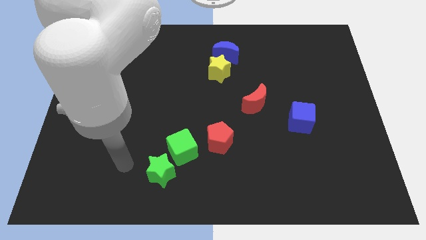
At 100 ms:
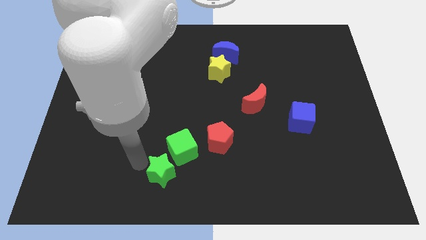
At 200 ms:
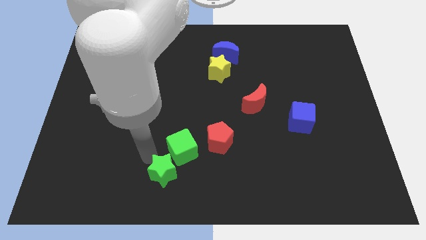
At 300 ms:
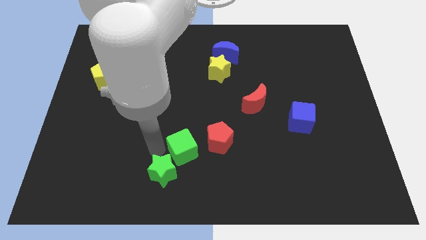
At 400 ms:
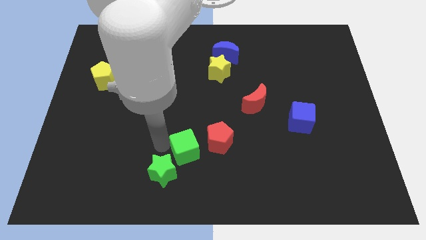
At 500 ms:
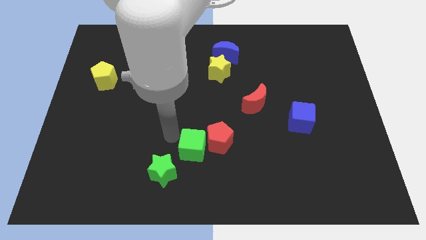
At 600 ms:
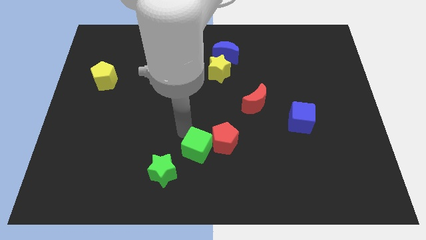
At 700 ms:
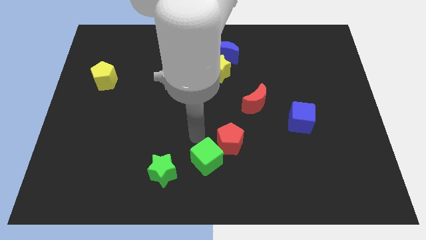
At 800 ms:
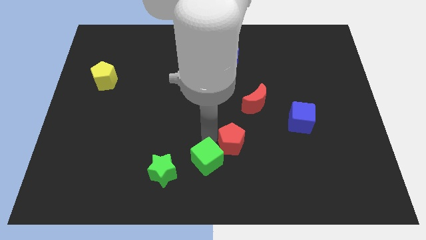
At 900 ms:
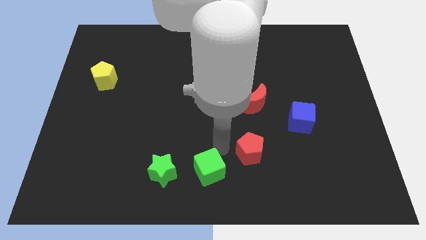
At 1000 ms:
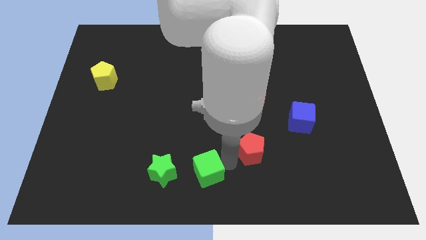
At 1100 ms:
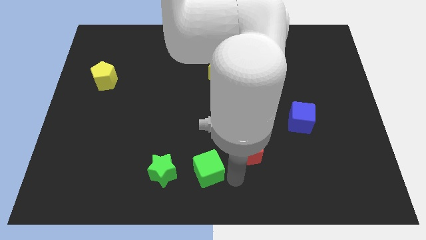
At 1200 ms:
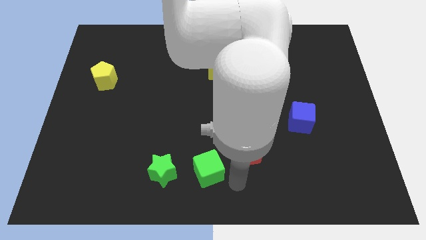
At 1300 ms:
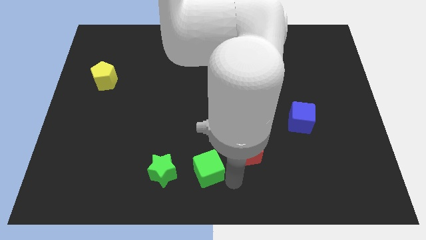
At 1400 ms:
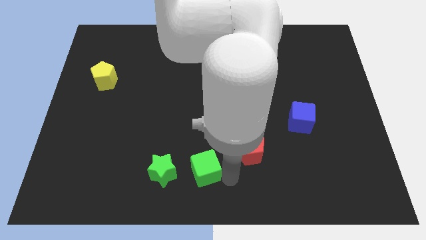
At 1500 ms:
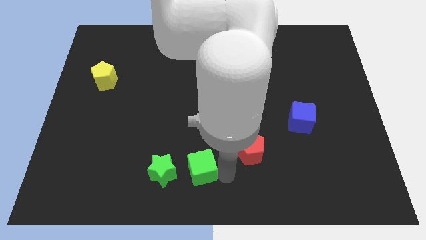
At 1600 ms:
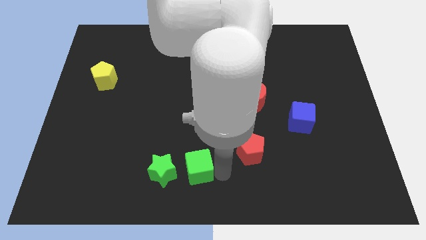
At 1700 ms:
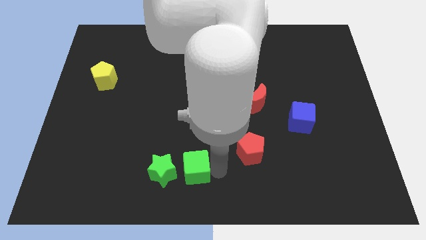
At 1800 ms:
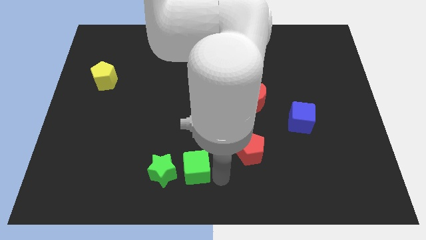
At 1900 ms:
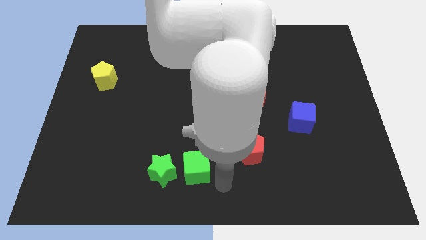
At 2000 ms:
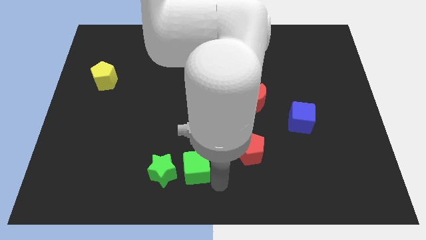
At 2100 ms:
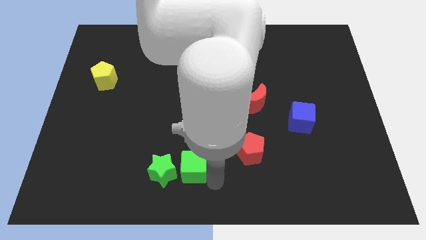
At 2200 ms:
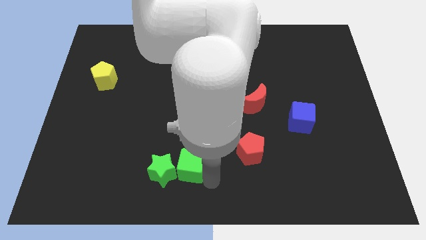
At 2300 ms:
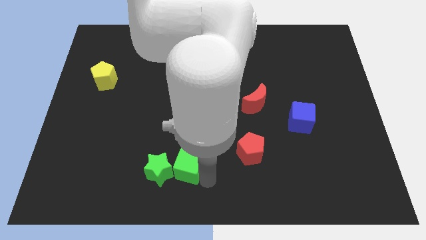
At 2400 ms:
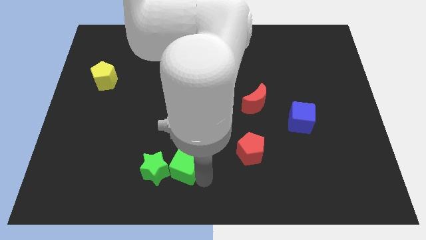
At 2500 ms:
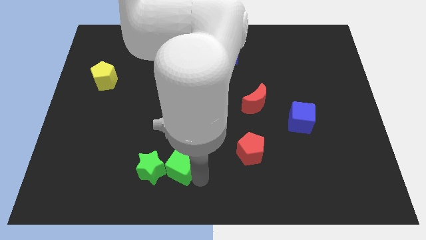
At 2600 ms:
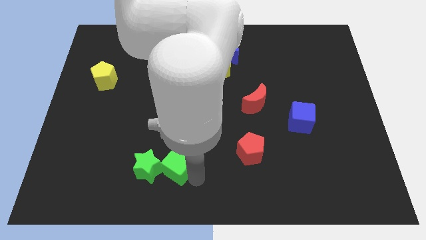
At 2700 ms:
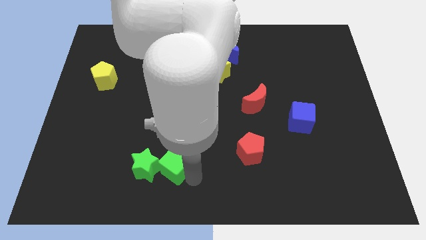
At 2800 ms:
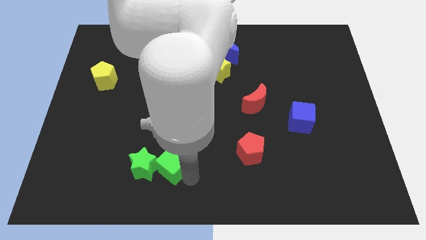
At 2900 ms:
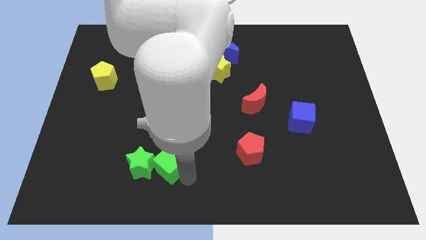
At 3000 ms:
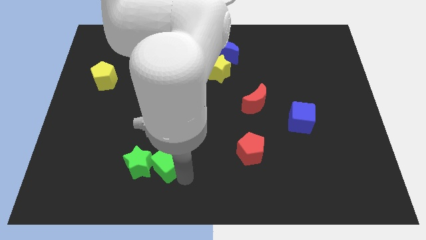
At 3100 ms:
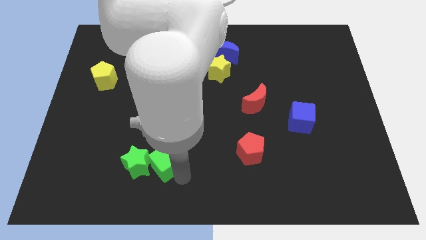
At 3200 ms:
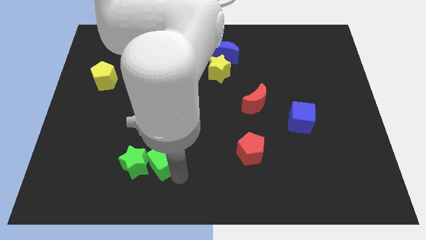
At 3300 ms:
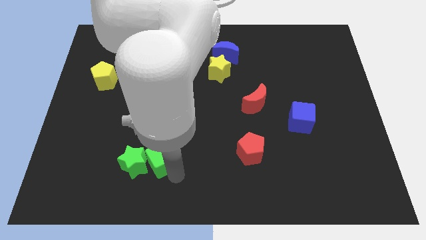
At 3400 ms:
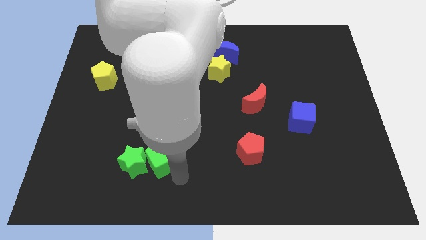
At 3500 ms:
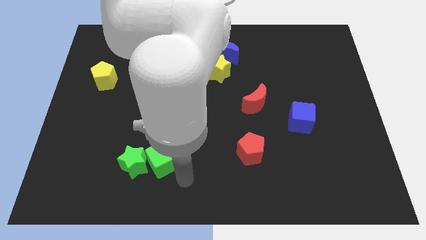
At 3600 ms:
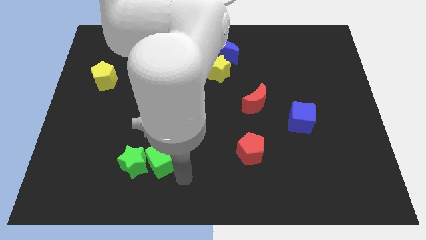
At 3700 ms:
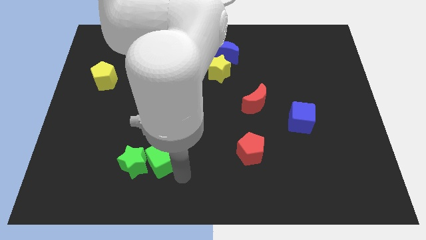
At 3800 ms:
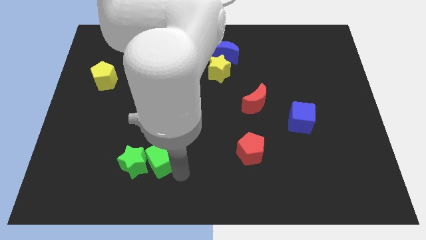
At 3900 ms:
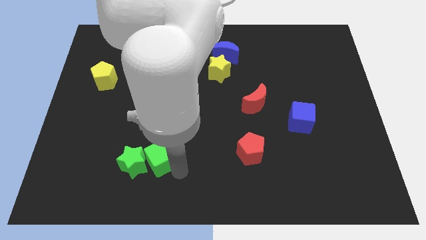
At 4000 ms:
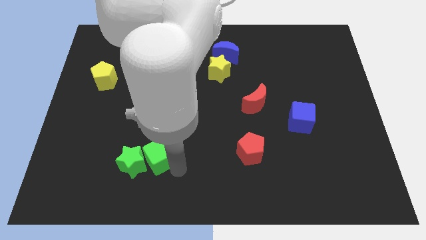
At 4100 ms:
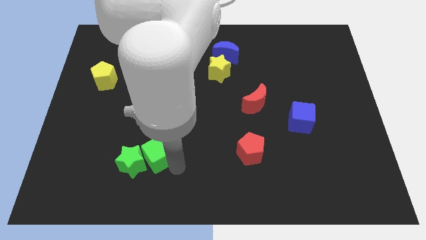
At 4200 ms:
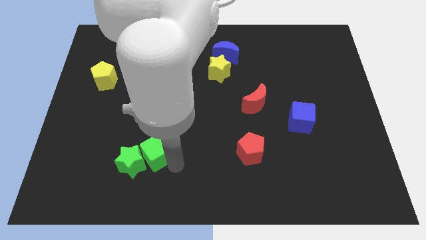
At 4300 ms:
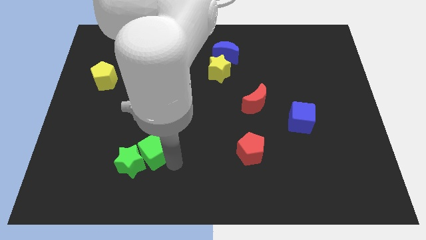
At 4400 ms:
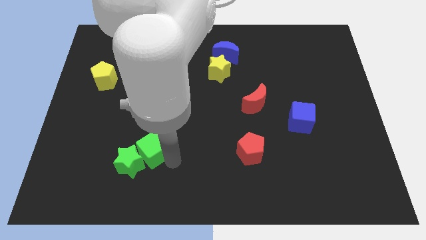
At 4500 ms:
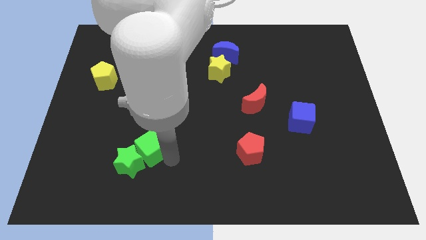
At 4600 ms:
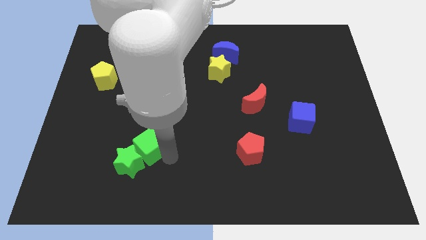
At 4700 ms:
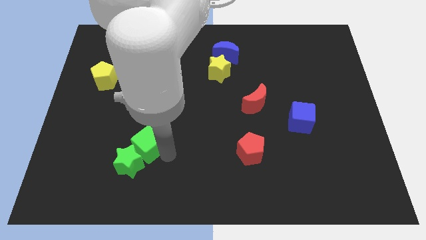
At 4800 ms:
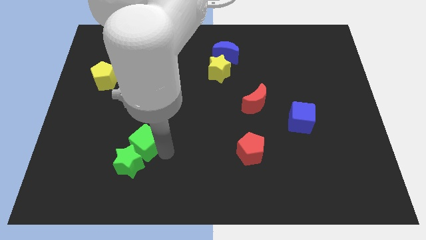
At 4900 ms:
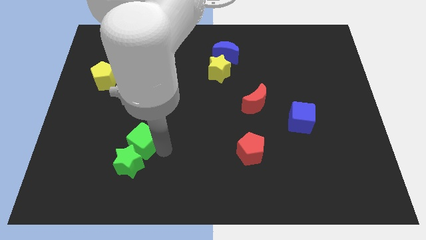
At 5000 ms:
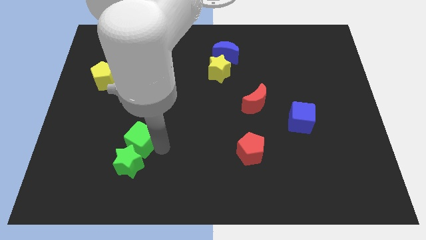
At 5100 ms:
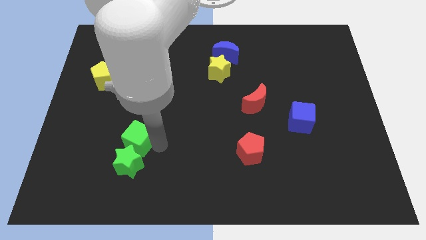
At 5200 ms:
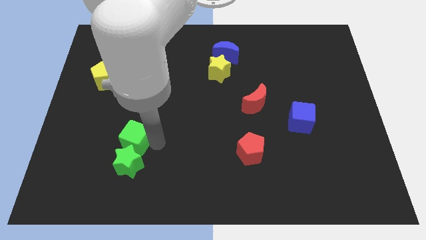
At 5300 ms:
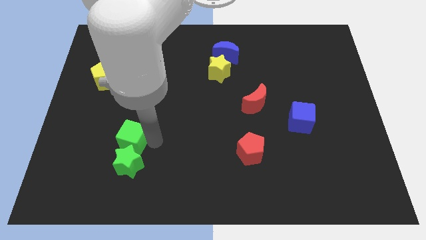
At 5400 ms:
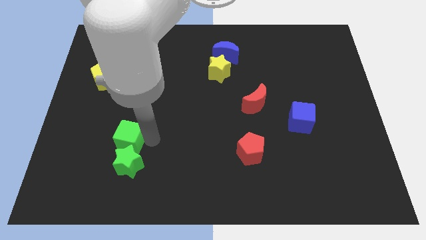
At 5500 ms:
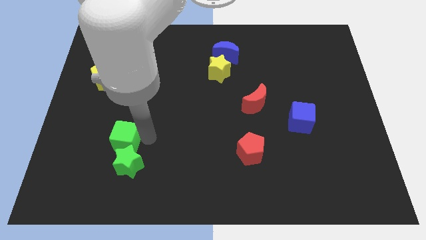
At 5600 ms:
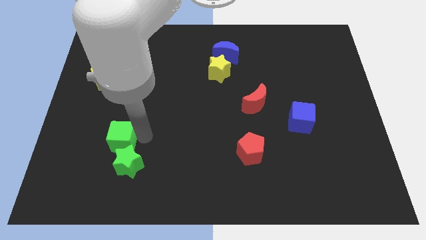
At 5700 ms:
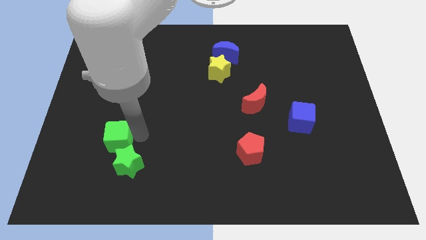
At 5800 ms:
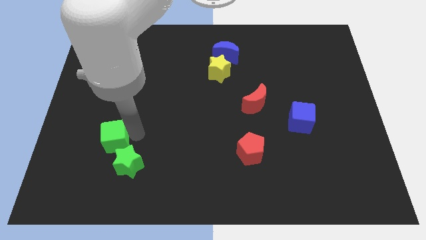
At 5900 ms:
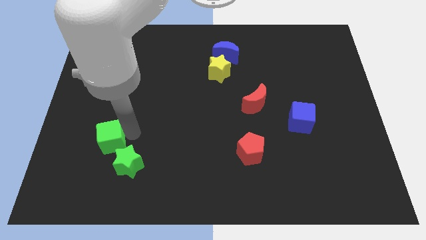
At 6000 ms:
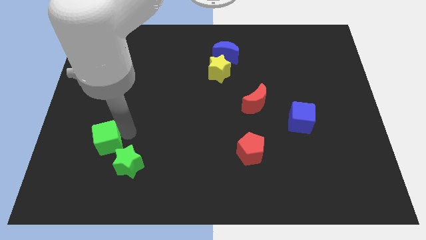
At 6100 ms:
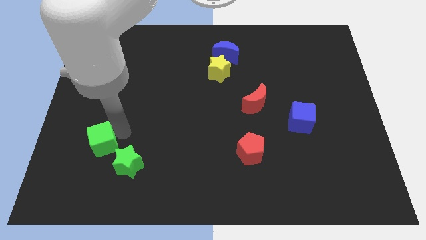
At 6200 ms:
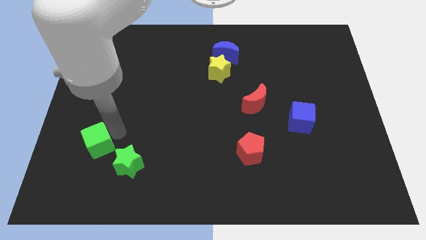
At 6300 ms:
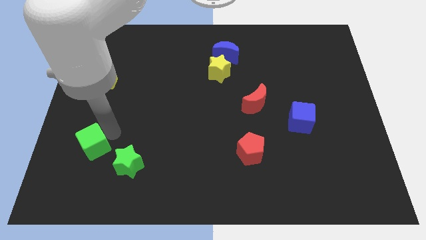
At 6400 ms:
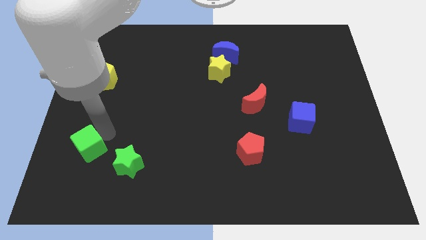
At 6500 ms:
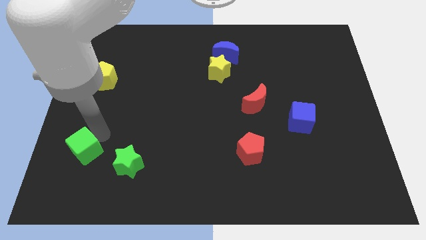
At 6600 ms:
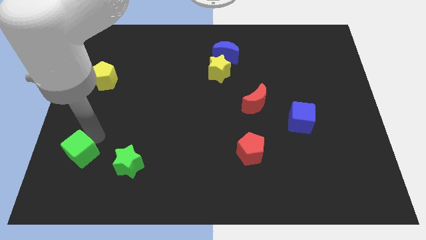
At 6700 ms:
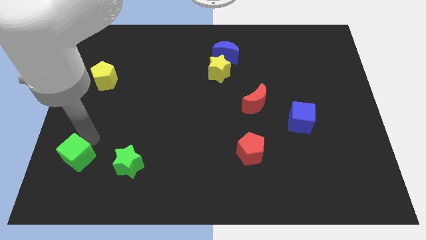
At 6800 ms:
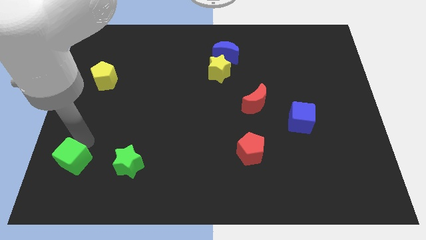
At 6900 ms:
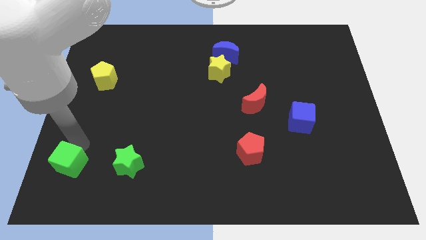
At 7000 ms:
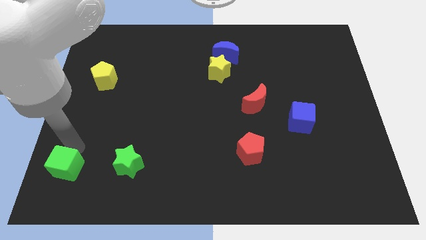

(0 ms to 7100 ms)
slide the green cube to the lower left corner
